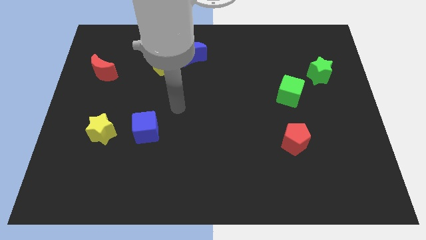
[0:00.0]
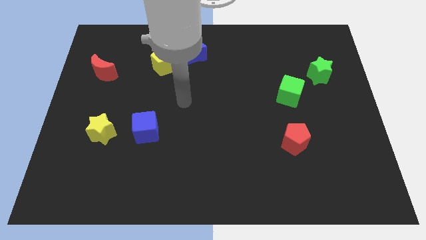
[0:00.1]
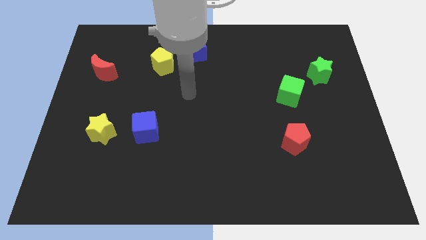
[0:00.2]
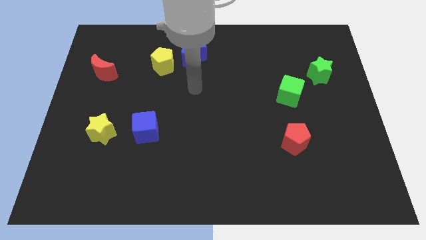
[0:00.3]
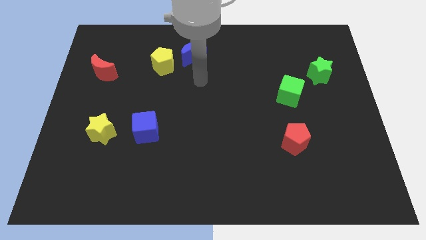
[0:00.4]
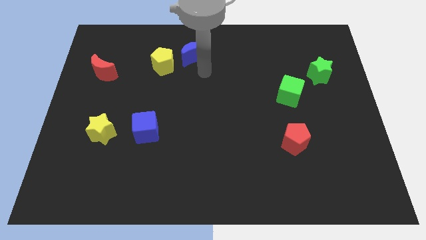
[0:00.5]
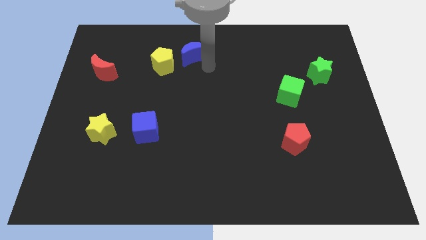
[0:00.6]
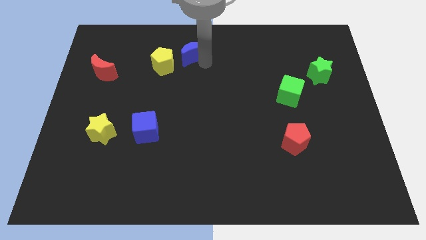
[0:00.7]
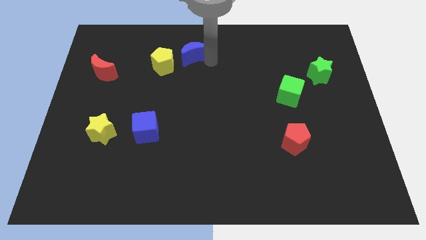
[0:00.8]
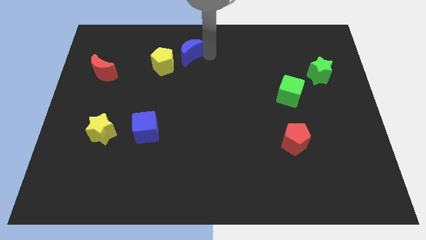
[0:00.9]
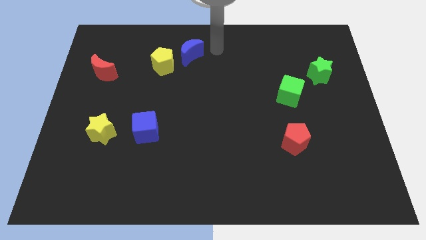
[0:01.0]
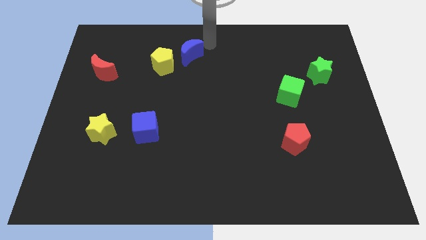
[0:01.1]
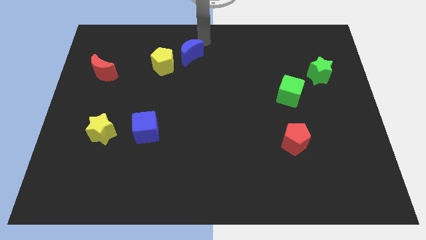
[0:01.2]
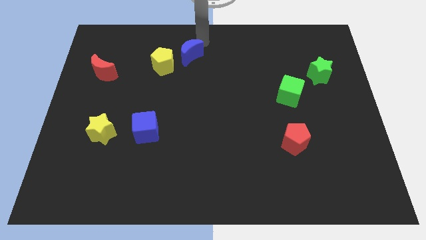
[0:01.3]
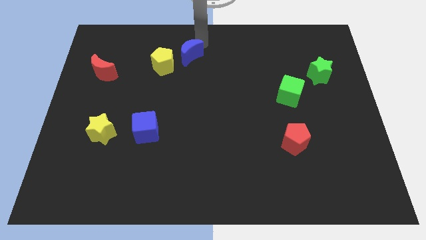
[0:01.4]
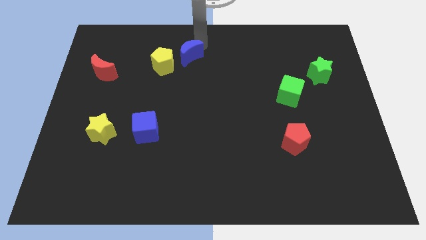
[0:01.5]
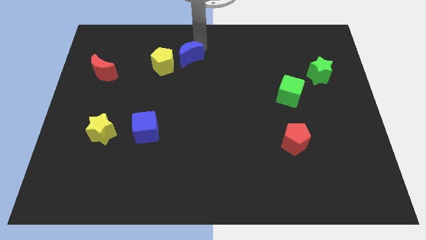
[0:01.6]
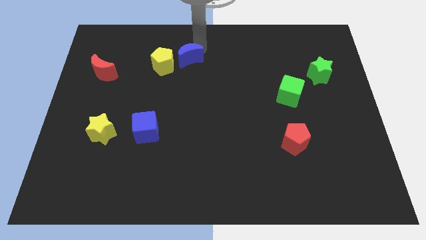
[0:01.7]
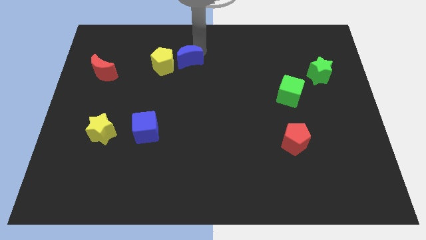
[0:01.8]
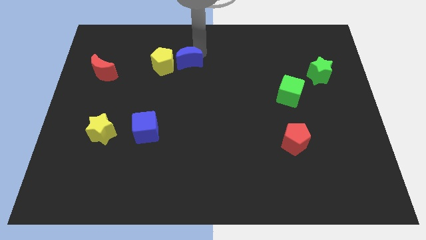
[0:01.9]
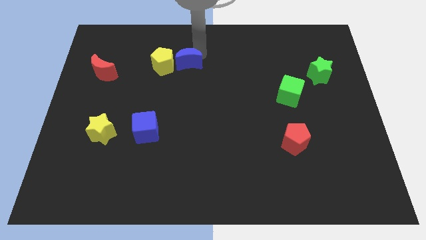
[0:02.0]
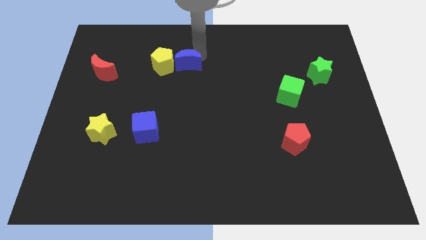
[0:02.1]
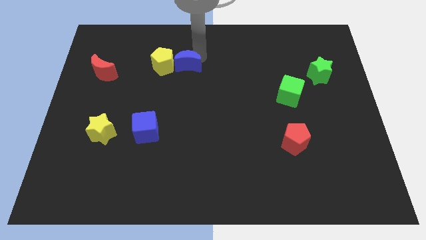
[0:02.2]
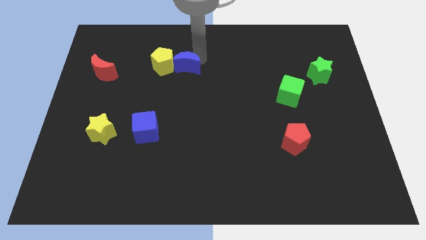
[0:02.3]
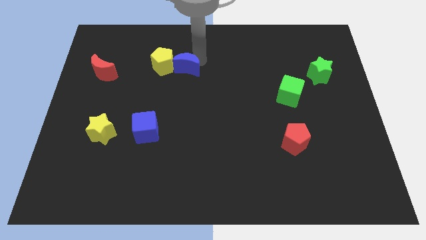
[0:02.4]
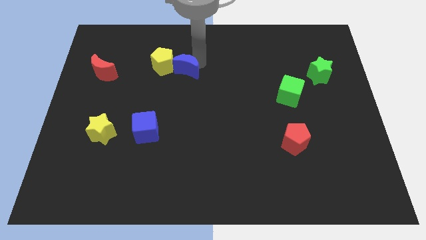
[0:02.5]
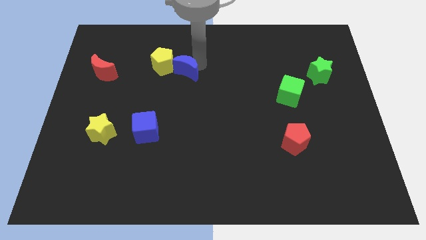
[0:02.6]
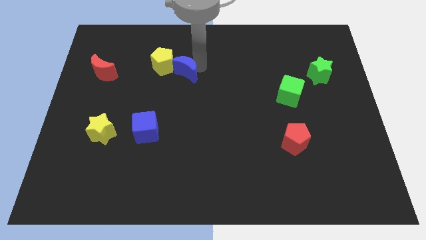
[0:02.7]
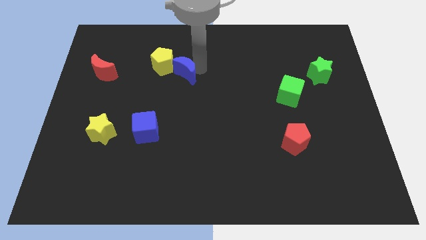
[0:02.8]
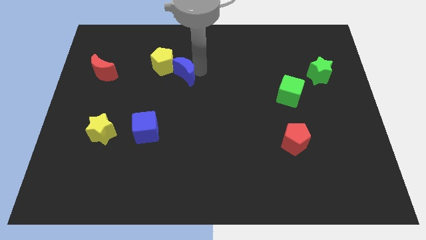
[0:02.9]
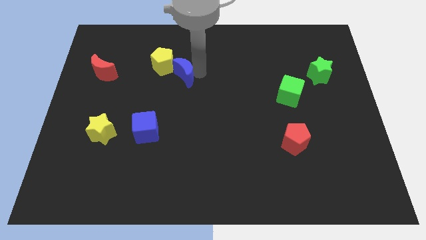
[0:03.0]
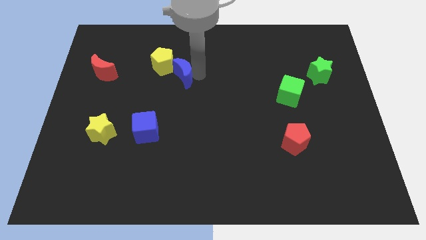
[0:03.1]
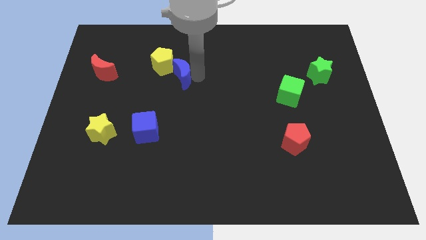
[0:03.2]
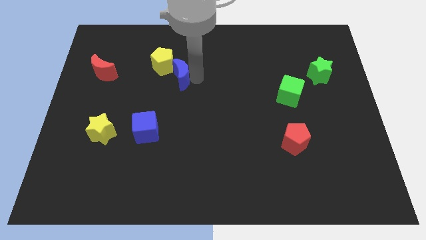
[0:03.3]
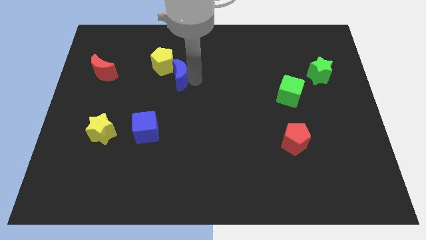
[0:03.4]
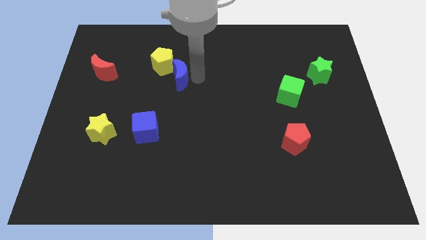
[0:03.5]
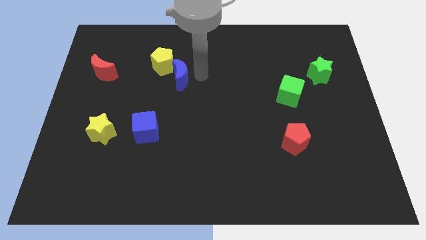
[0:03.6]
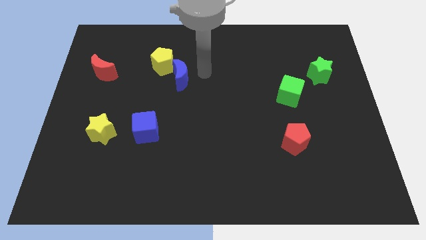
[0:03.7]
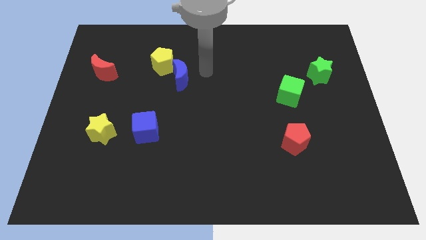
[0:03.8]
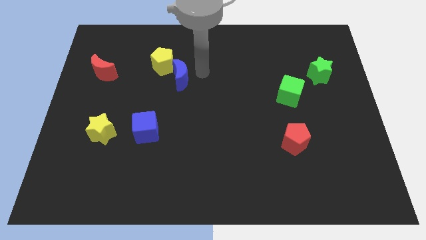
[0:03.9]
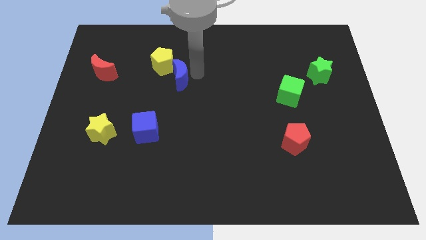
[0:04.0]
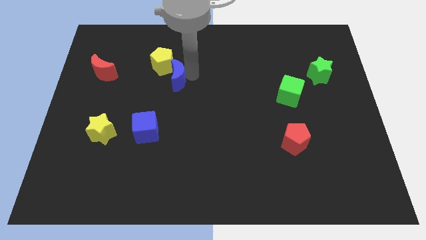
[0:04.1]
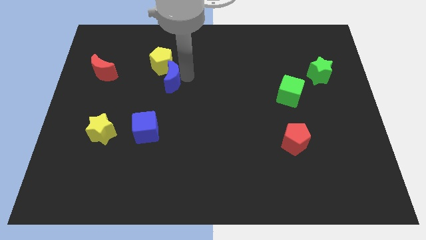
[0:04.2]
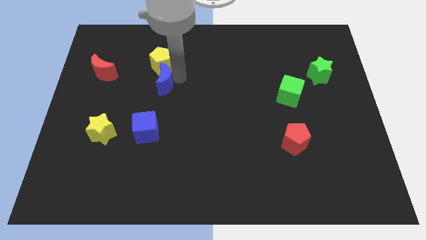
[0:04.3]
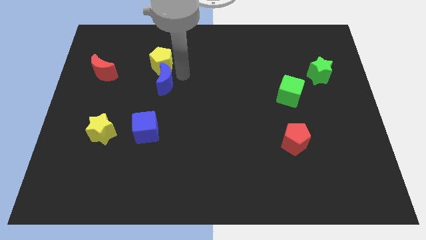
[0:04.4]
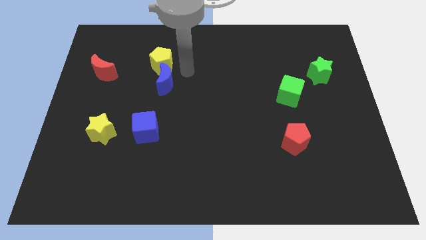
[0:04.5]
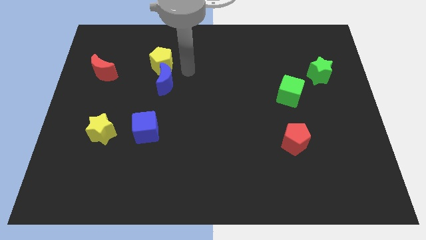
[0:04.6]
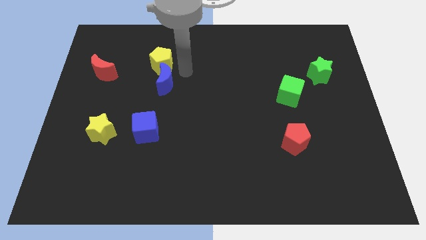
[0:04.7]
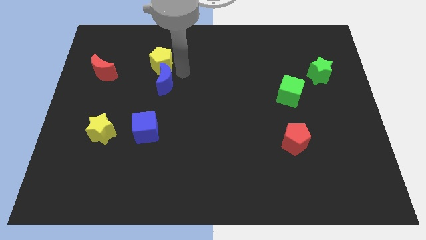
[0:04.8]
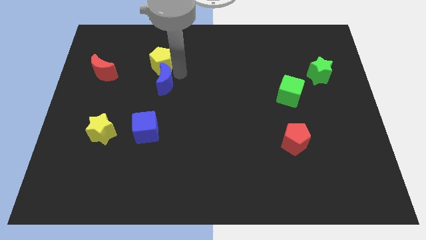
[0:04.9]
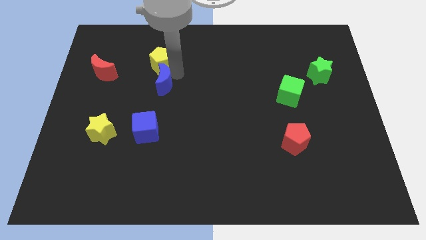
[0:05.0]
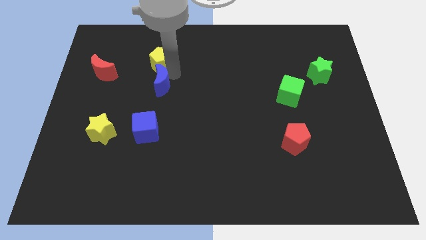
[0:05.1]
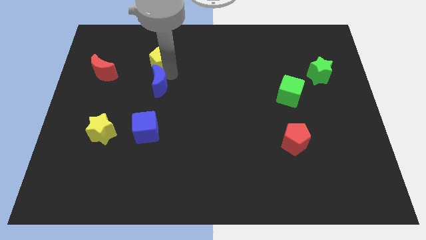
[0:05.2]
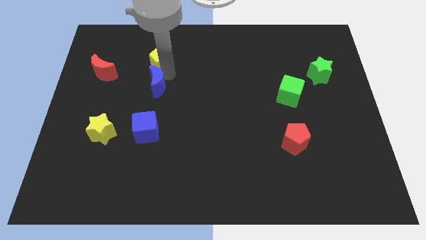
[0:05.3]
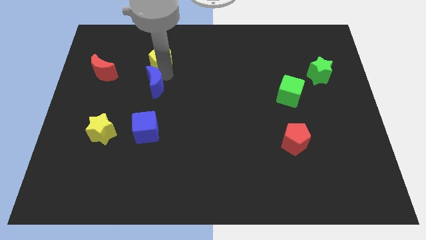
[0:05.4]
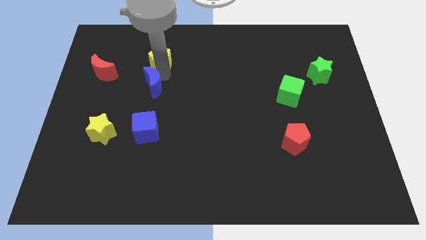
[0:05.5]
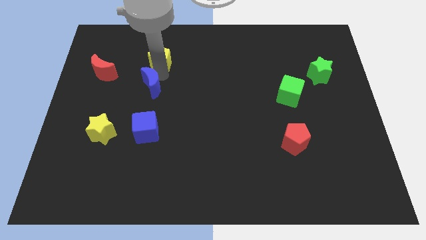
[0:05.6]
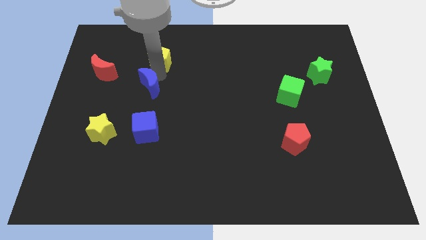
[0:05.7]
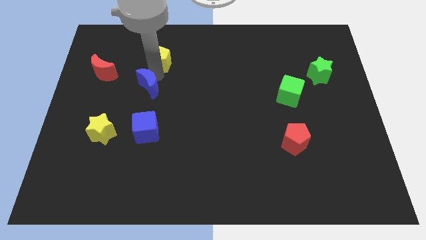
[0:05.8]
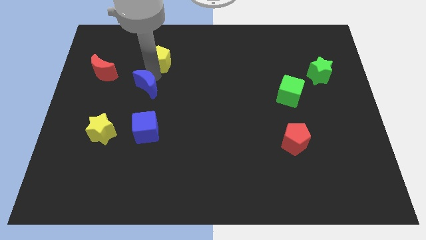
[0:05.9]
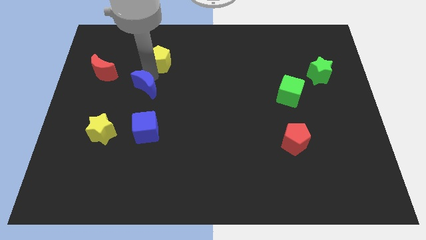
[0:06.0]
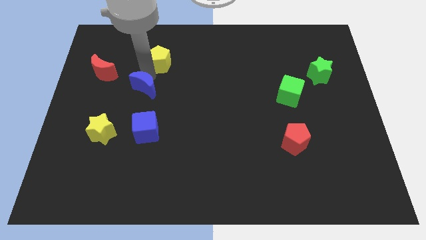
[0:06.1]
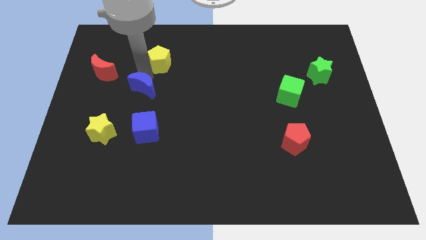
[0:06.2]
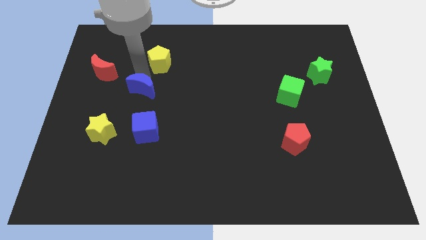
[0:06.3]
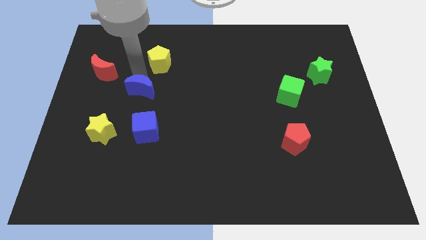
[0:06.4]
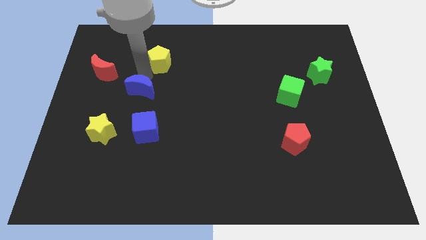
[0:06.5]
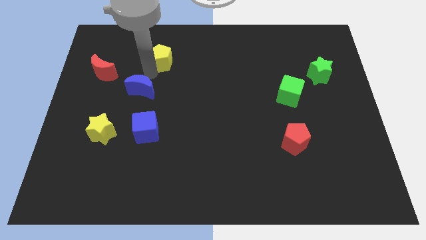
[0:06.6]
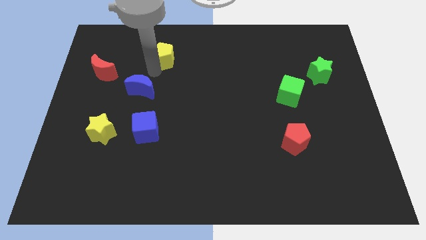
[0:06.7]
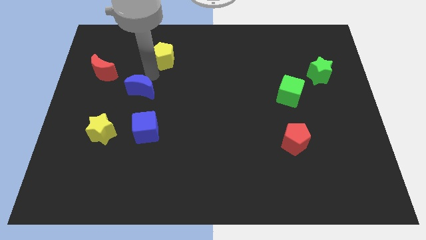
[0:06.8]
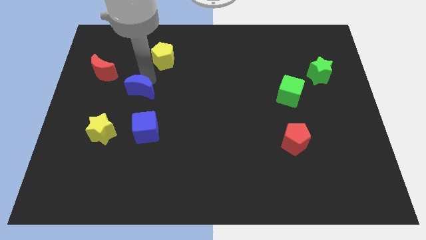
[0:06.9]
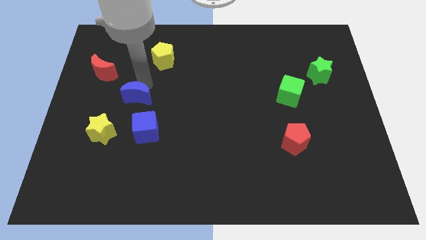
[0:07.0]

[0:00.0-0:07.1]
move the blue moon to the top left of the blue cube
